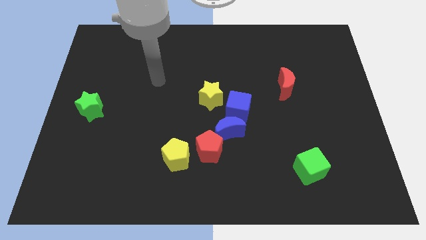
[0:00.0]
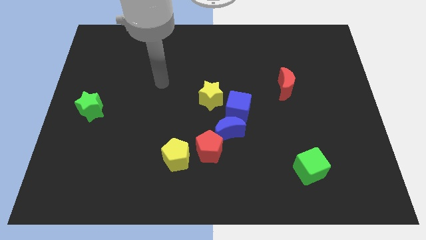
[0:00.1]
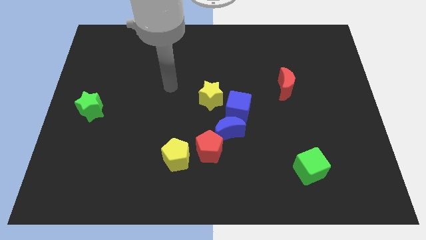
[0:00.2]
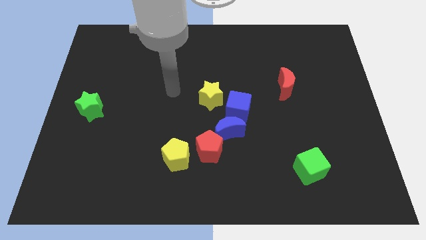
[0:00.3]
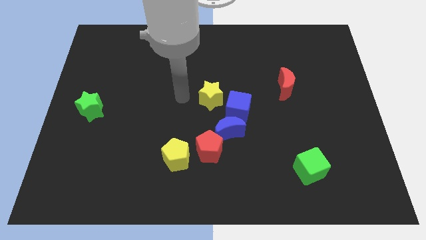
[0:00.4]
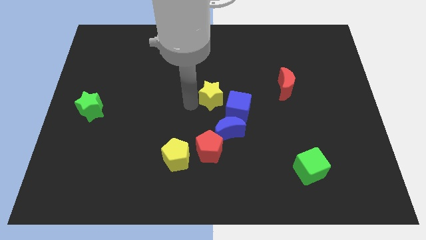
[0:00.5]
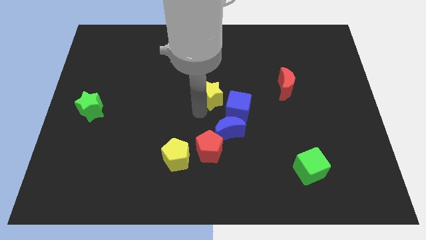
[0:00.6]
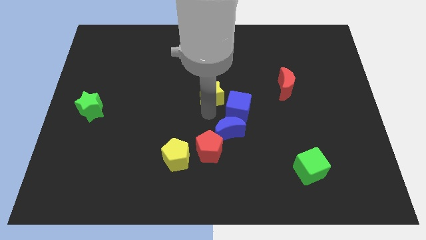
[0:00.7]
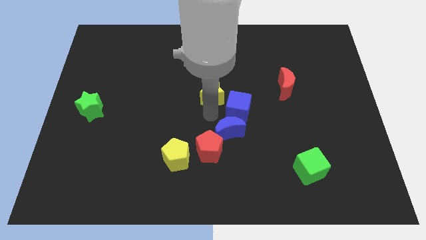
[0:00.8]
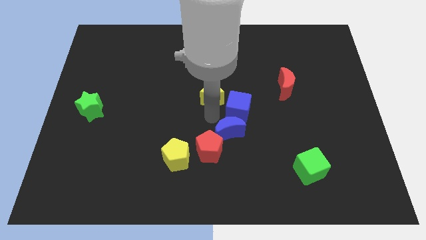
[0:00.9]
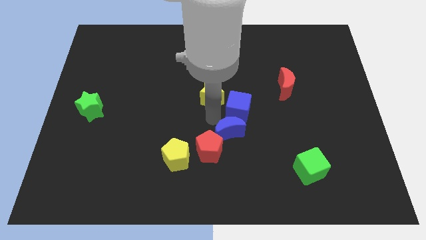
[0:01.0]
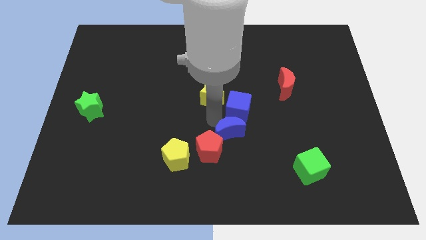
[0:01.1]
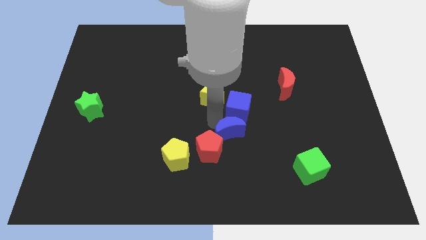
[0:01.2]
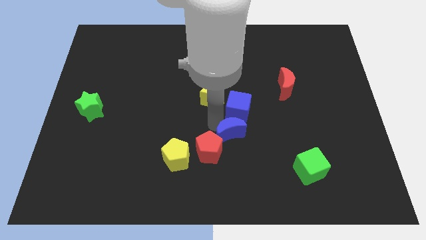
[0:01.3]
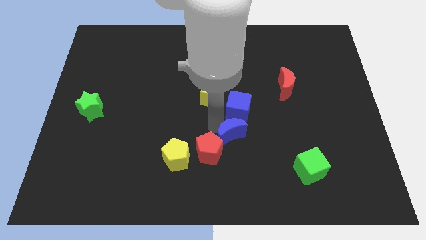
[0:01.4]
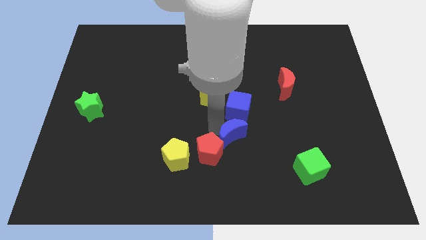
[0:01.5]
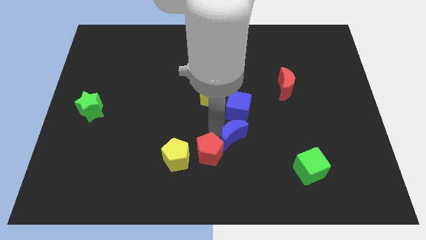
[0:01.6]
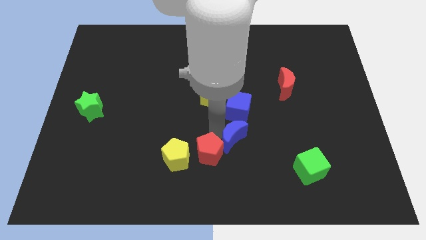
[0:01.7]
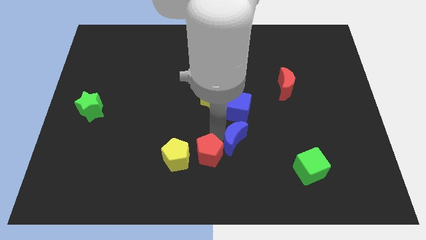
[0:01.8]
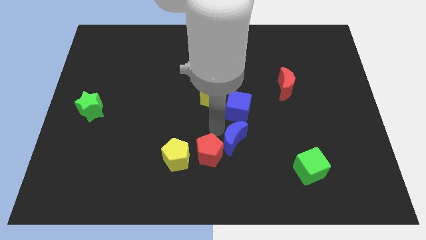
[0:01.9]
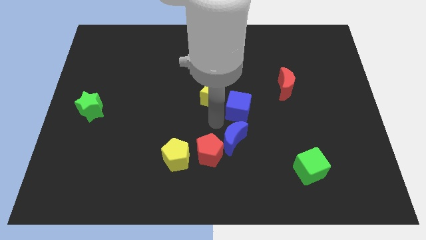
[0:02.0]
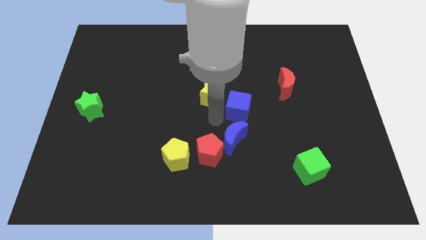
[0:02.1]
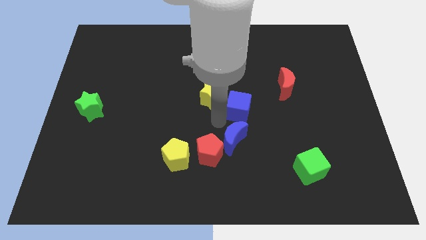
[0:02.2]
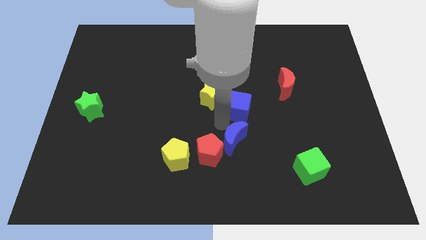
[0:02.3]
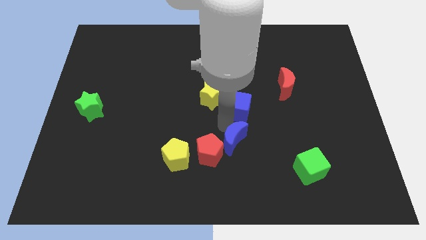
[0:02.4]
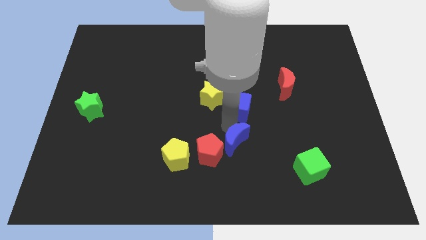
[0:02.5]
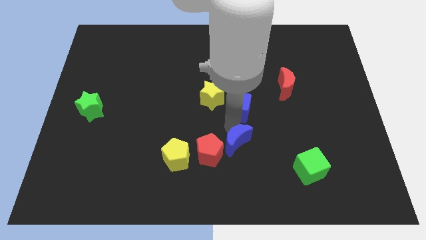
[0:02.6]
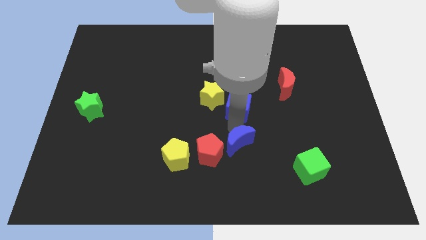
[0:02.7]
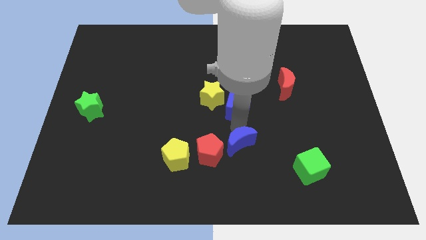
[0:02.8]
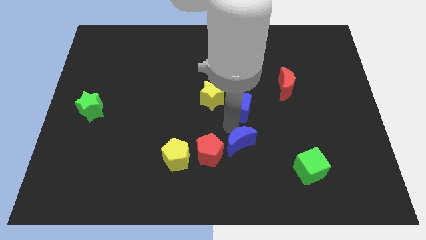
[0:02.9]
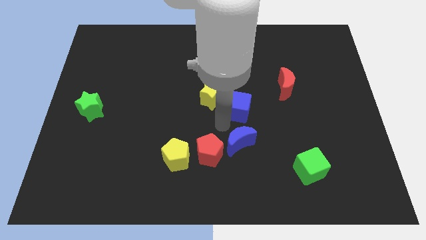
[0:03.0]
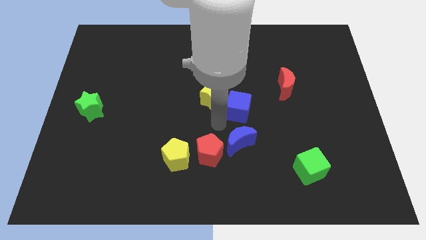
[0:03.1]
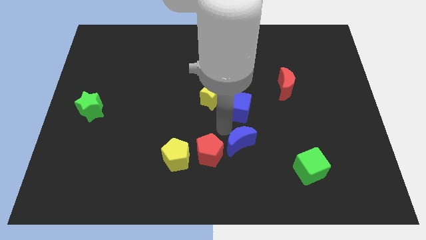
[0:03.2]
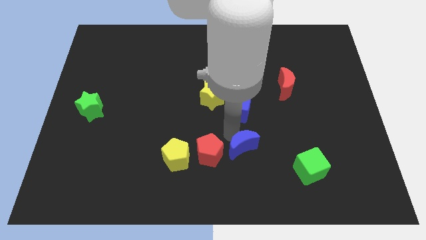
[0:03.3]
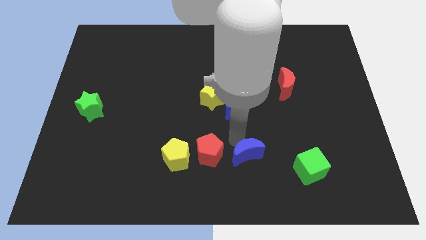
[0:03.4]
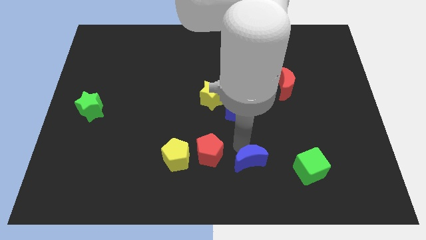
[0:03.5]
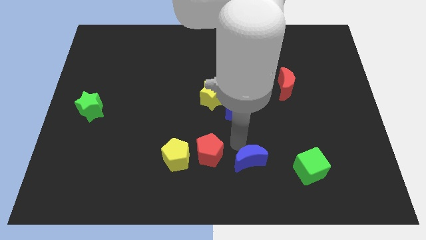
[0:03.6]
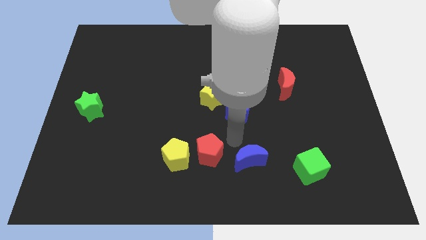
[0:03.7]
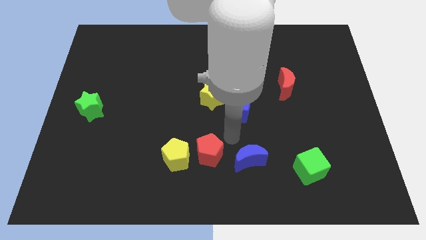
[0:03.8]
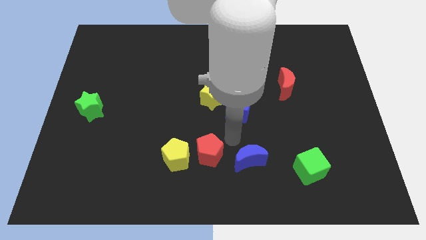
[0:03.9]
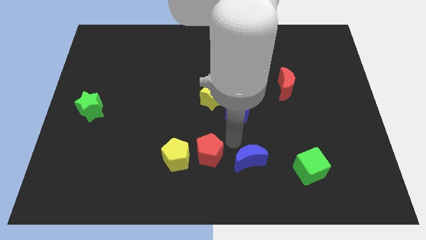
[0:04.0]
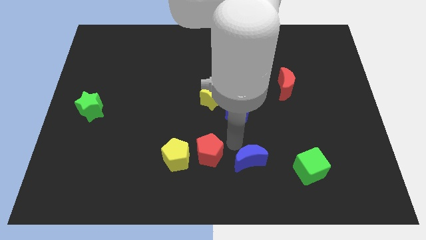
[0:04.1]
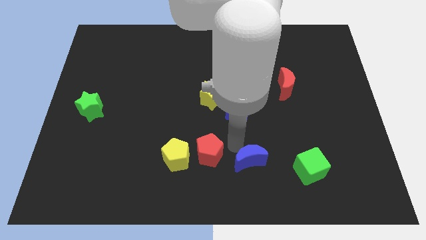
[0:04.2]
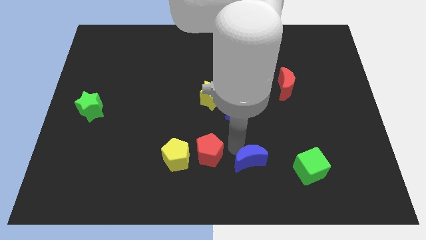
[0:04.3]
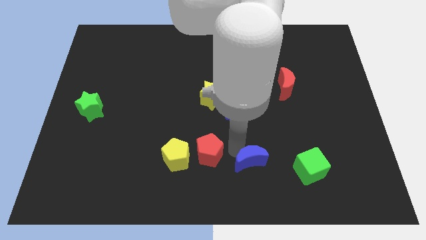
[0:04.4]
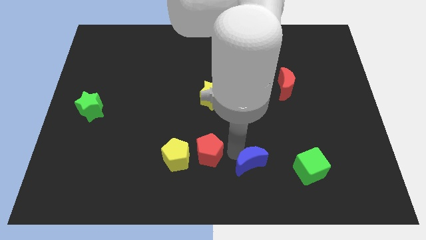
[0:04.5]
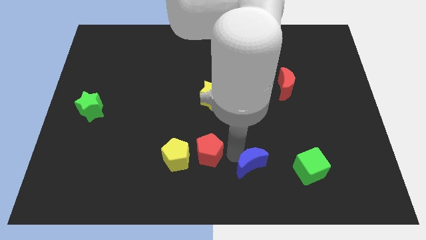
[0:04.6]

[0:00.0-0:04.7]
pull the blue moon apart from the red pentagon and blue cube

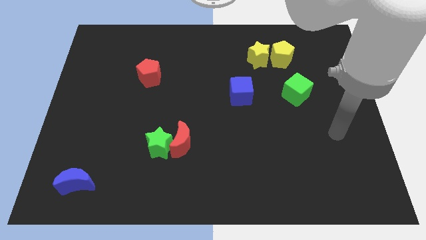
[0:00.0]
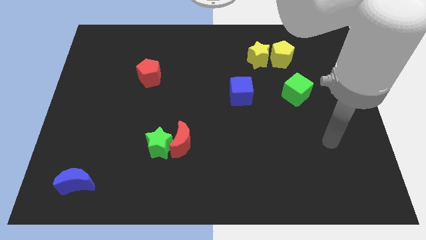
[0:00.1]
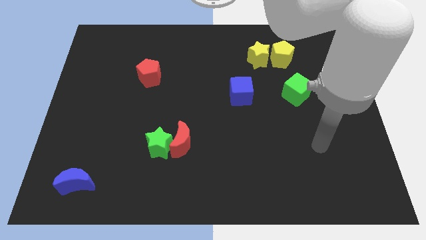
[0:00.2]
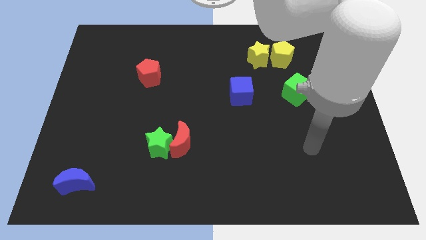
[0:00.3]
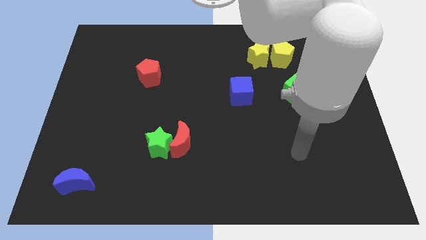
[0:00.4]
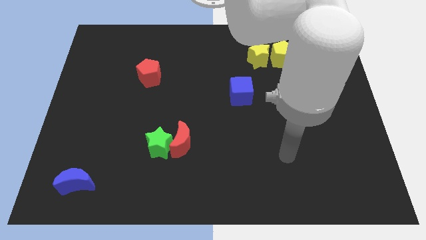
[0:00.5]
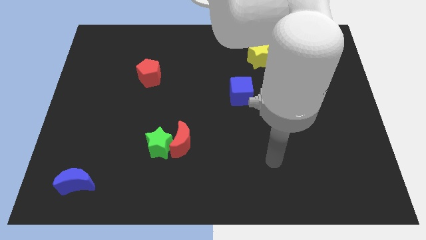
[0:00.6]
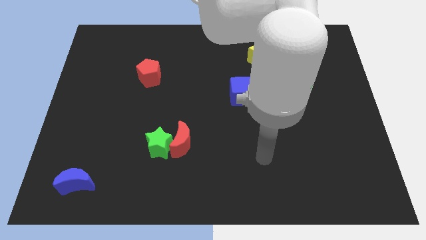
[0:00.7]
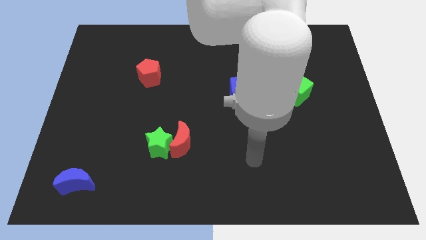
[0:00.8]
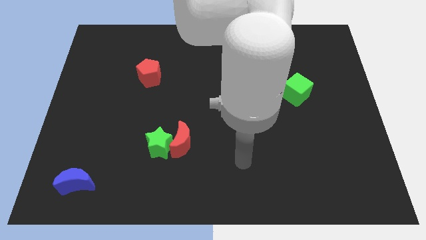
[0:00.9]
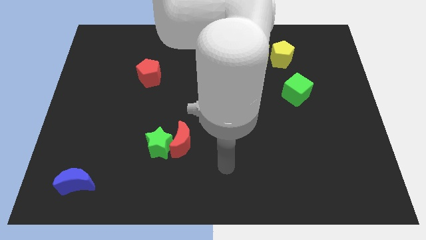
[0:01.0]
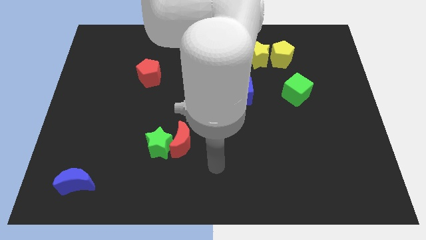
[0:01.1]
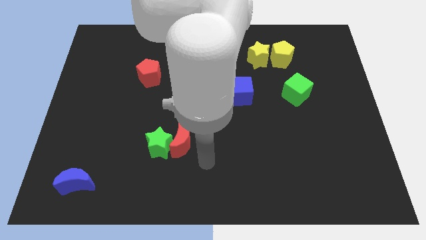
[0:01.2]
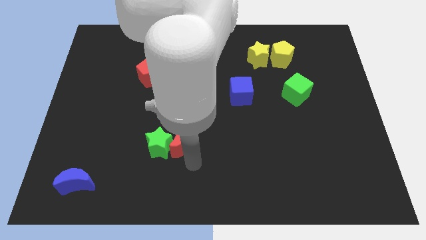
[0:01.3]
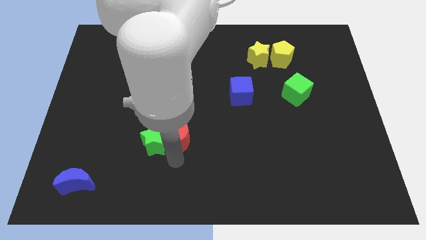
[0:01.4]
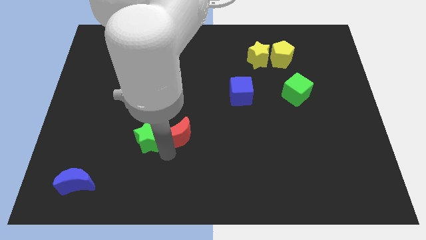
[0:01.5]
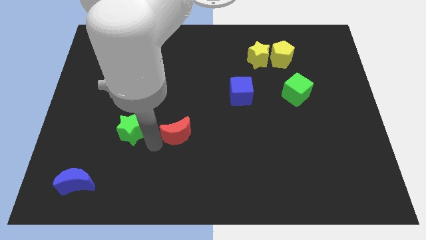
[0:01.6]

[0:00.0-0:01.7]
separate the red moon from the green star

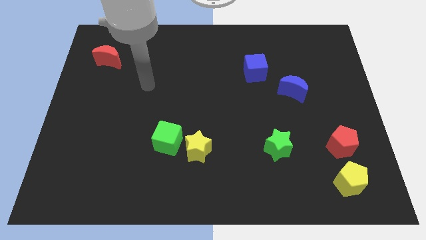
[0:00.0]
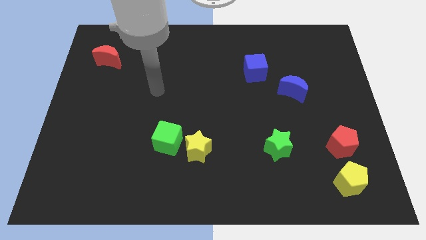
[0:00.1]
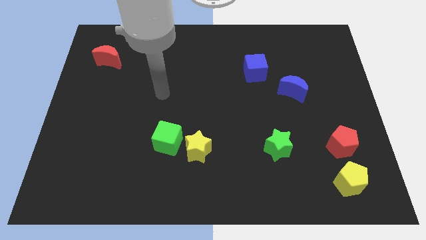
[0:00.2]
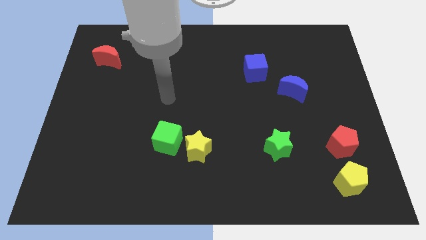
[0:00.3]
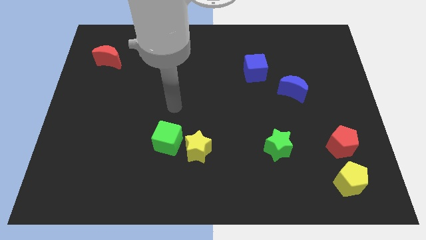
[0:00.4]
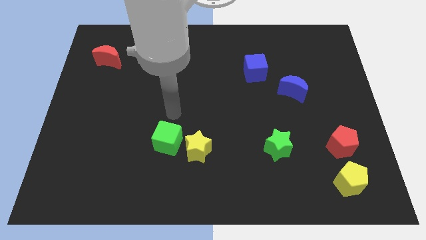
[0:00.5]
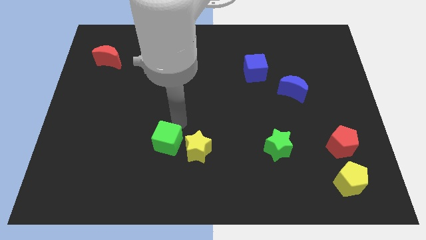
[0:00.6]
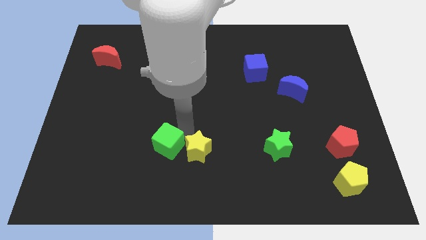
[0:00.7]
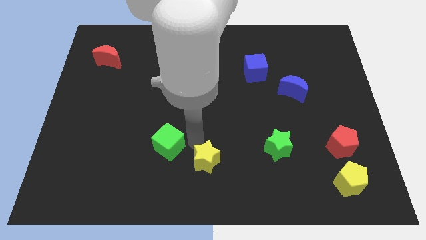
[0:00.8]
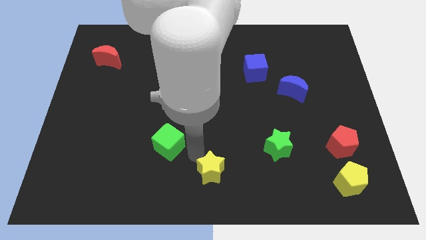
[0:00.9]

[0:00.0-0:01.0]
pull the green cube apart from the yellow star

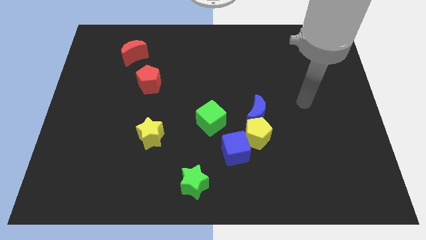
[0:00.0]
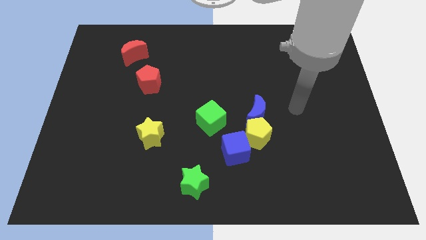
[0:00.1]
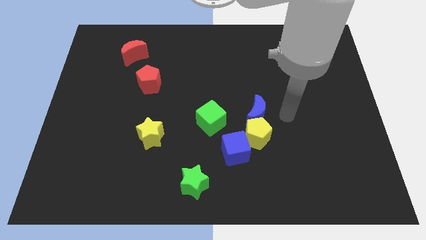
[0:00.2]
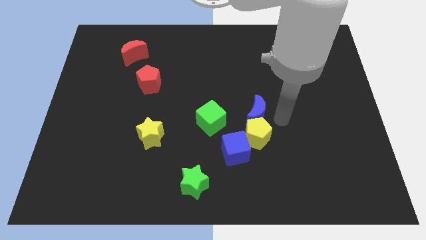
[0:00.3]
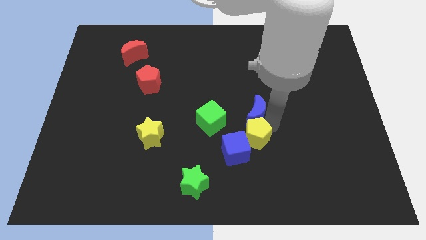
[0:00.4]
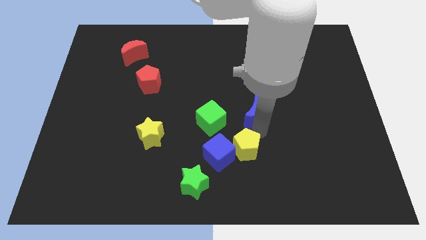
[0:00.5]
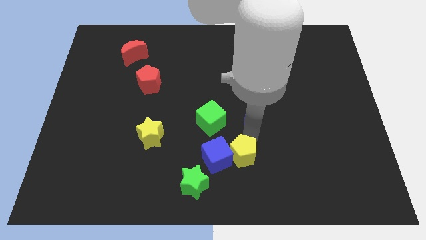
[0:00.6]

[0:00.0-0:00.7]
separate the blue moon from the yellow pentagon

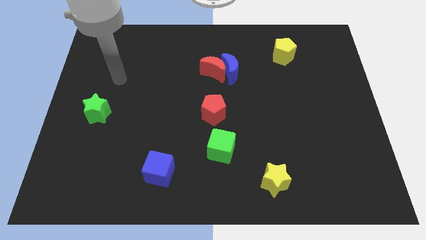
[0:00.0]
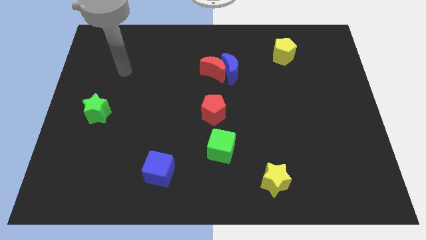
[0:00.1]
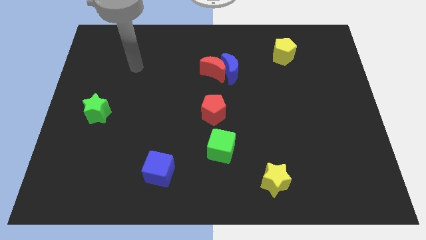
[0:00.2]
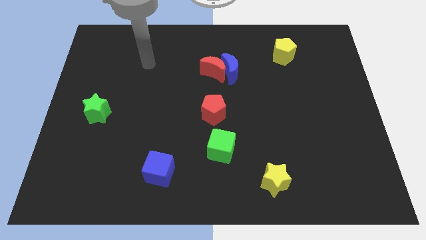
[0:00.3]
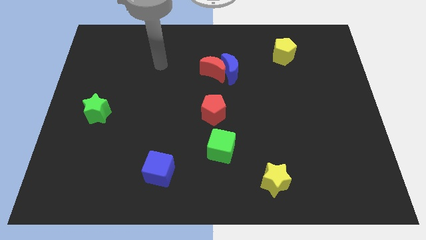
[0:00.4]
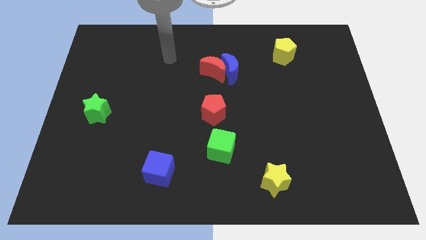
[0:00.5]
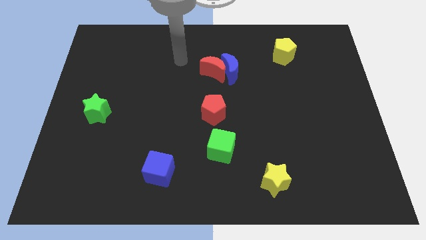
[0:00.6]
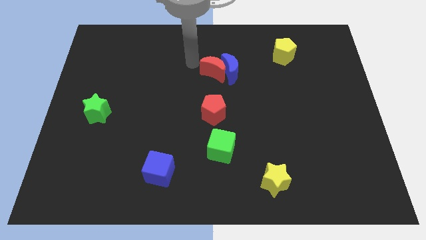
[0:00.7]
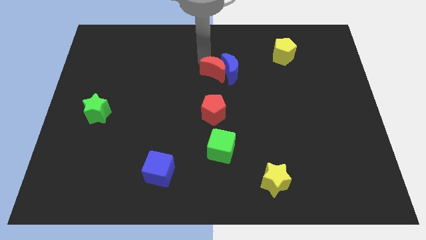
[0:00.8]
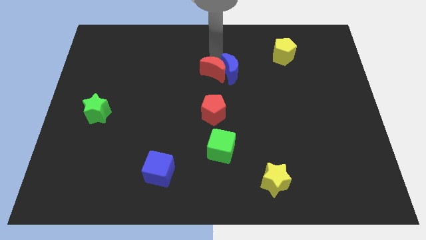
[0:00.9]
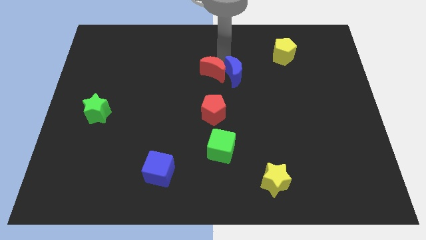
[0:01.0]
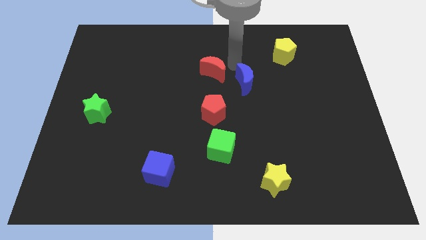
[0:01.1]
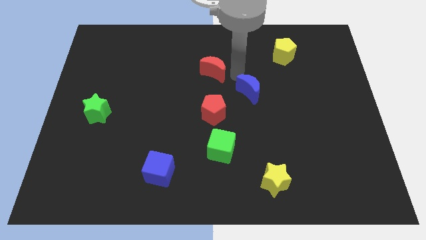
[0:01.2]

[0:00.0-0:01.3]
move the red moon away from the blue moon
